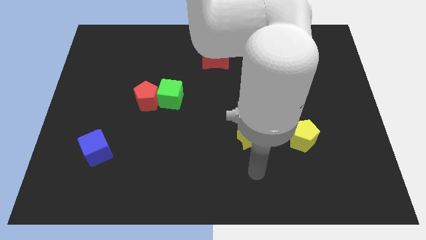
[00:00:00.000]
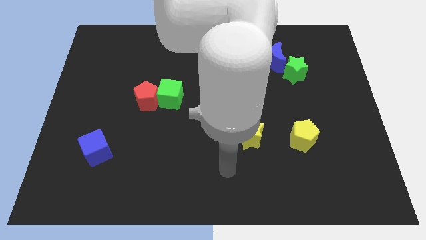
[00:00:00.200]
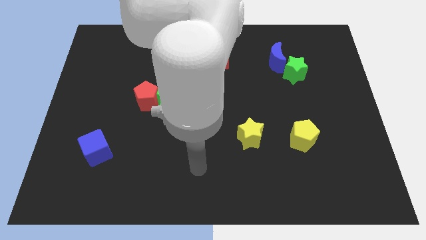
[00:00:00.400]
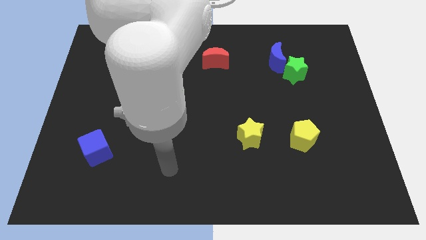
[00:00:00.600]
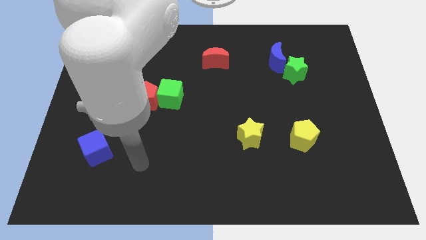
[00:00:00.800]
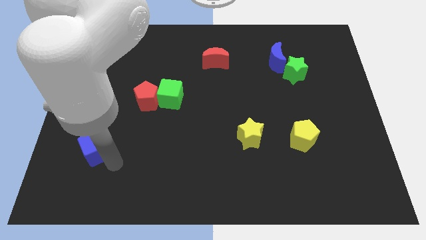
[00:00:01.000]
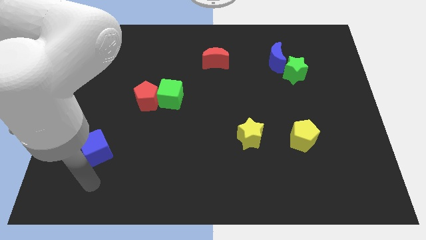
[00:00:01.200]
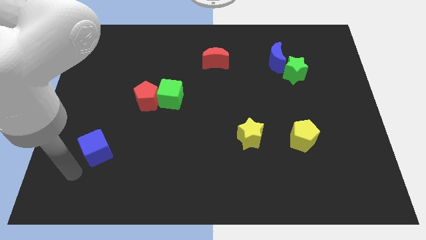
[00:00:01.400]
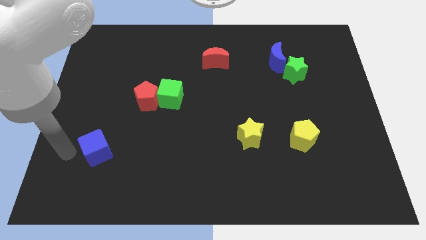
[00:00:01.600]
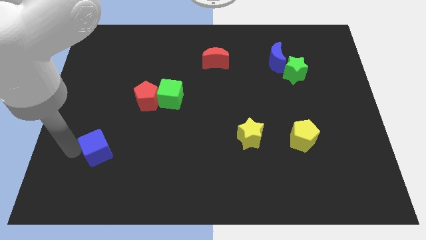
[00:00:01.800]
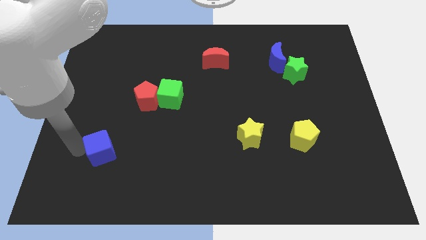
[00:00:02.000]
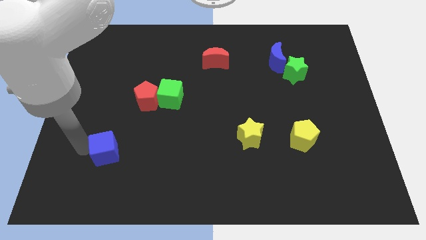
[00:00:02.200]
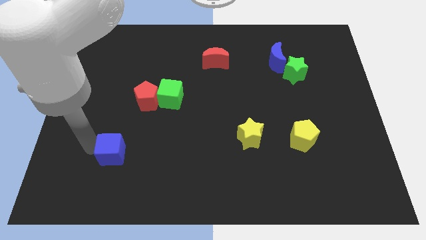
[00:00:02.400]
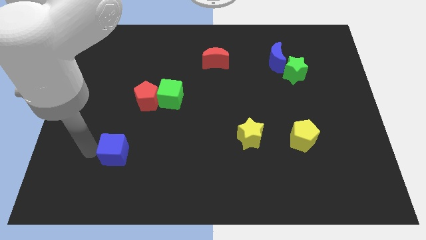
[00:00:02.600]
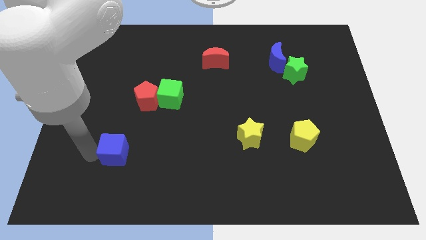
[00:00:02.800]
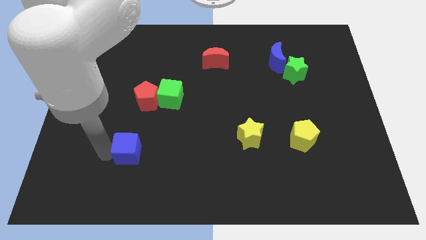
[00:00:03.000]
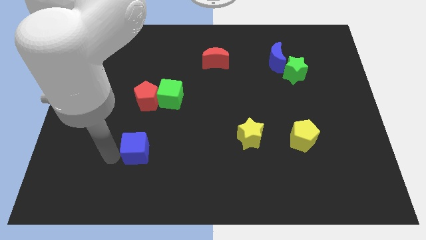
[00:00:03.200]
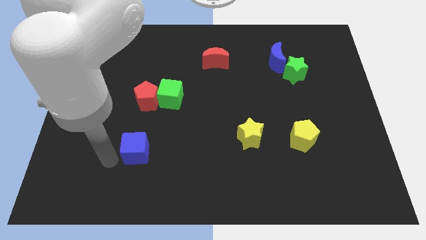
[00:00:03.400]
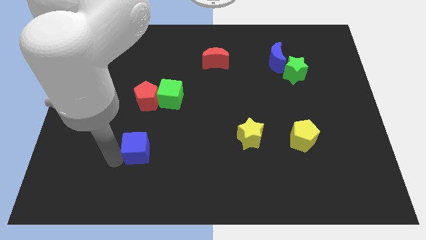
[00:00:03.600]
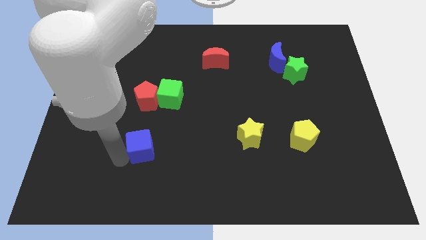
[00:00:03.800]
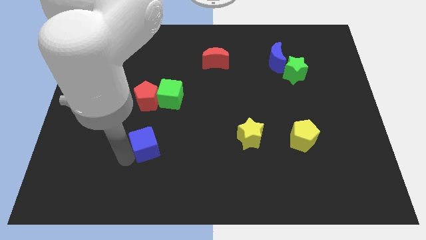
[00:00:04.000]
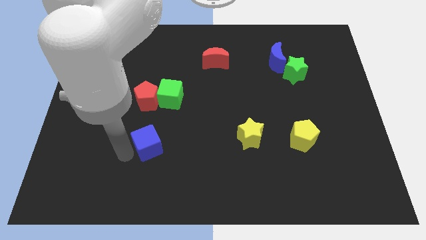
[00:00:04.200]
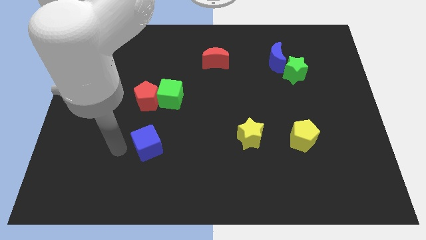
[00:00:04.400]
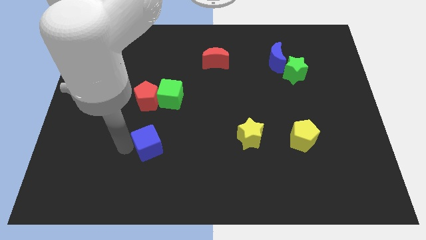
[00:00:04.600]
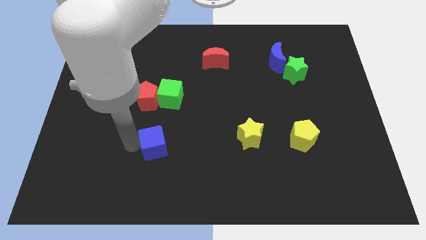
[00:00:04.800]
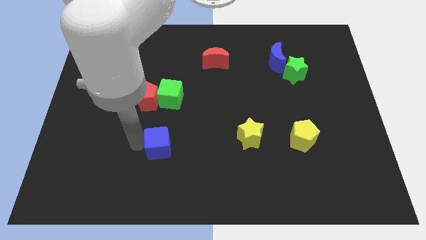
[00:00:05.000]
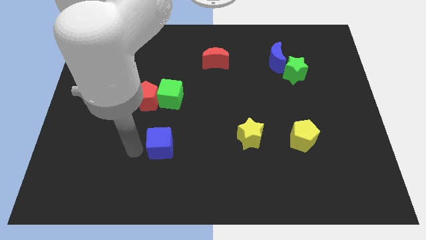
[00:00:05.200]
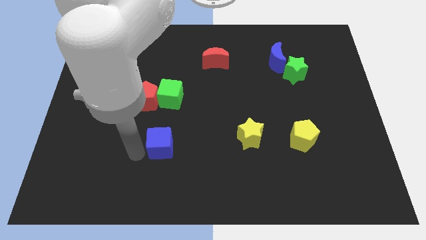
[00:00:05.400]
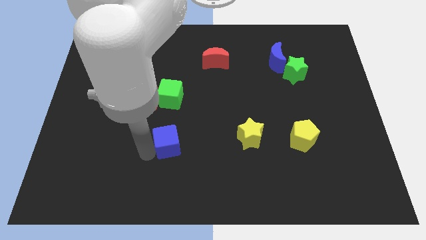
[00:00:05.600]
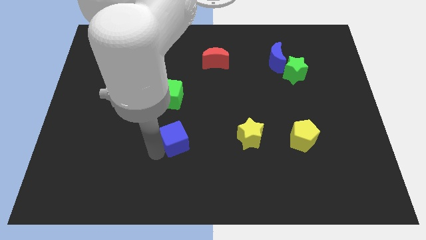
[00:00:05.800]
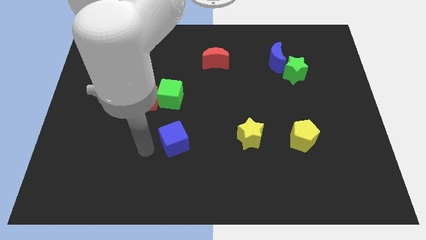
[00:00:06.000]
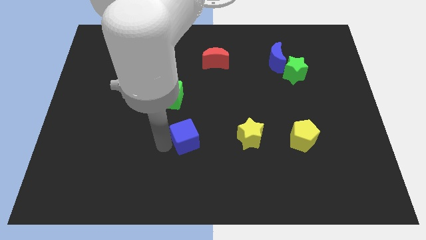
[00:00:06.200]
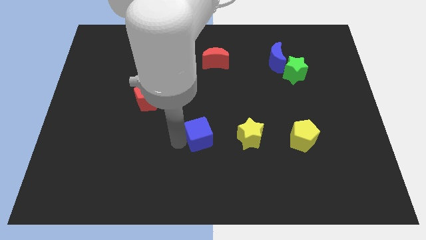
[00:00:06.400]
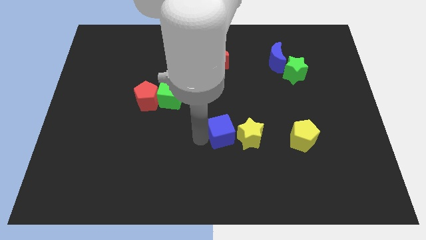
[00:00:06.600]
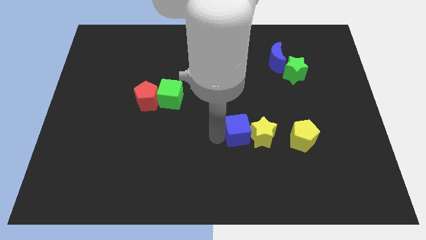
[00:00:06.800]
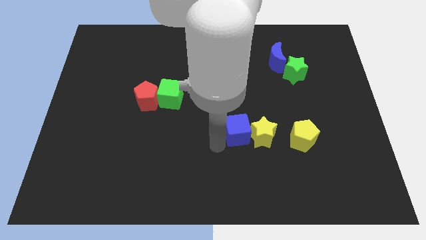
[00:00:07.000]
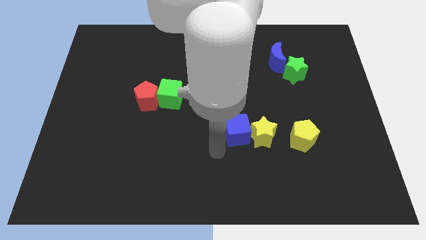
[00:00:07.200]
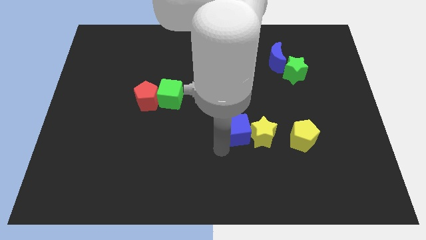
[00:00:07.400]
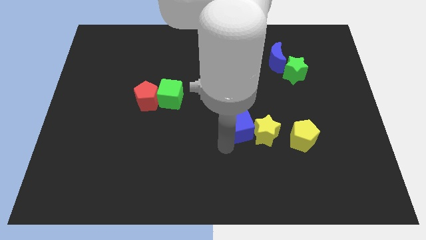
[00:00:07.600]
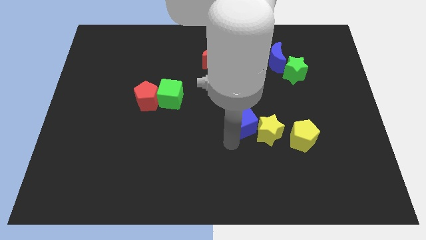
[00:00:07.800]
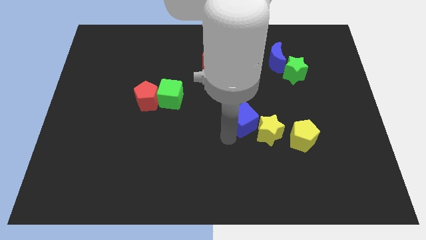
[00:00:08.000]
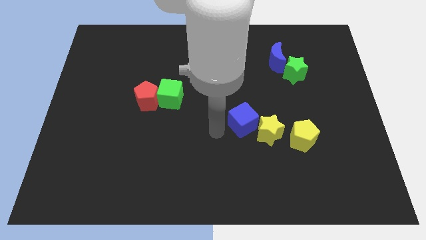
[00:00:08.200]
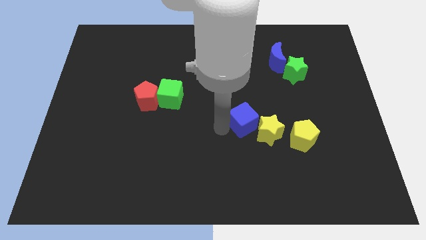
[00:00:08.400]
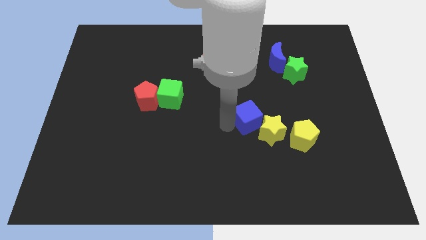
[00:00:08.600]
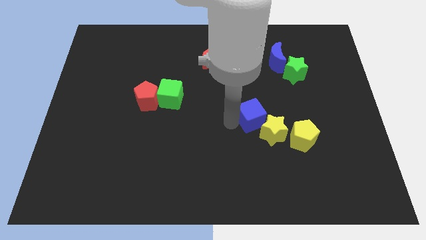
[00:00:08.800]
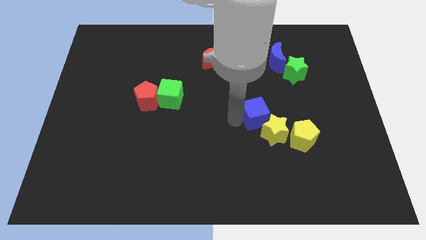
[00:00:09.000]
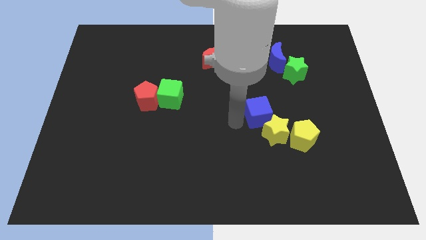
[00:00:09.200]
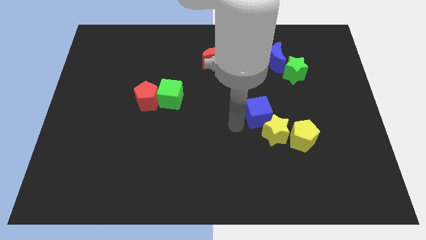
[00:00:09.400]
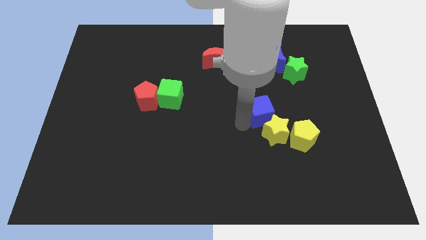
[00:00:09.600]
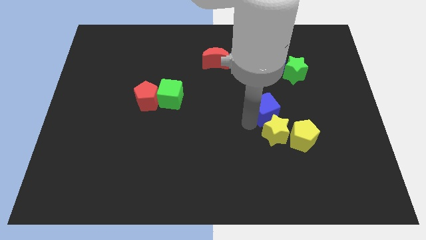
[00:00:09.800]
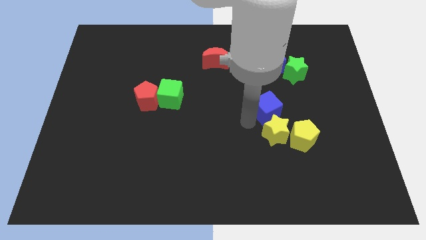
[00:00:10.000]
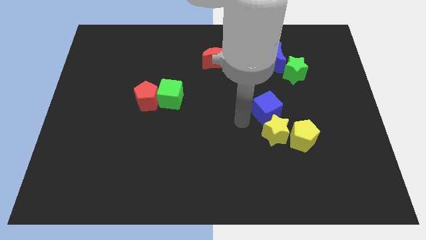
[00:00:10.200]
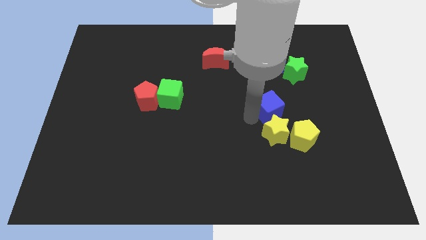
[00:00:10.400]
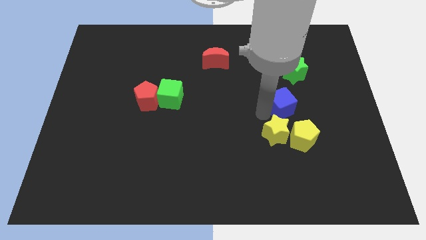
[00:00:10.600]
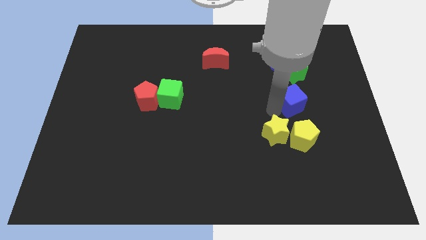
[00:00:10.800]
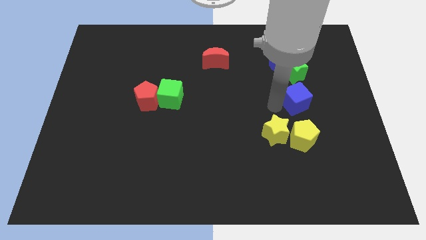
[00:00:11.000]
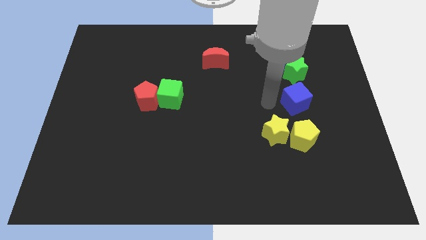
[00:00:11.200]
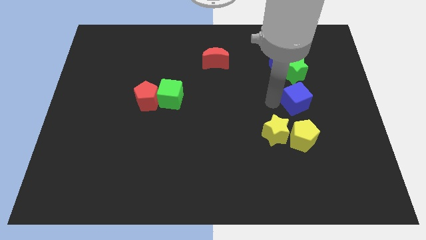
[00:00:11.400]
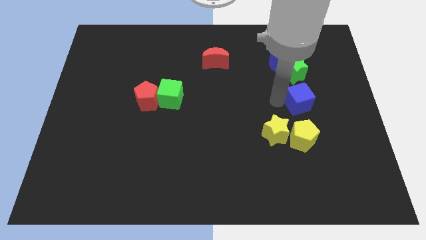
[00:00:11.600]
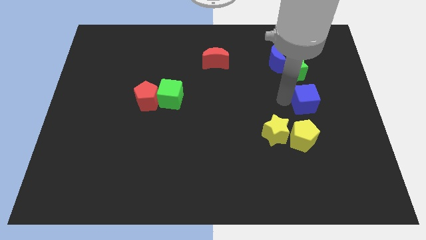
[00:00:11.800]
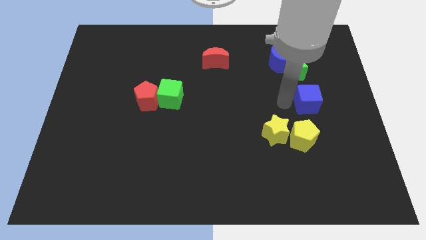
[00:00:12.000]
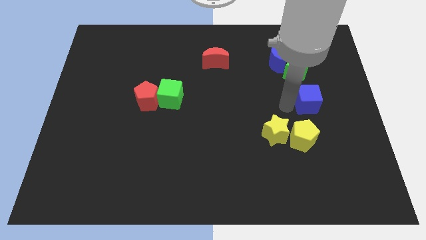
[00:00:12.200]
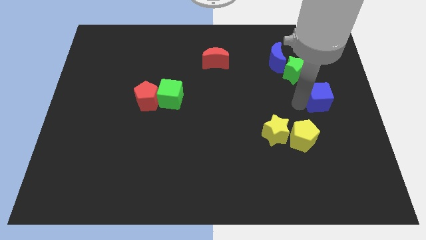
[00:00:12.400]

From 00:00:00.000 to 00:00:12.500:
move the blue cube to the right side of the board
